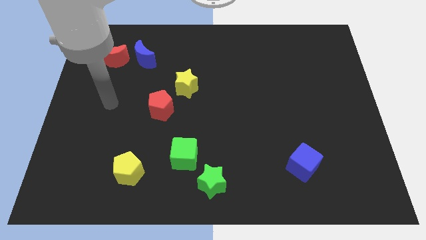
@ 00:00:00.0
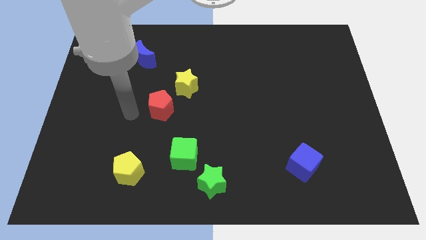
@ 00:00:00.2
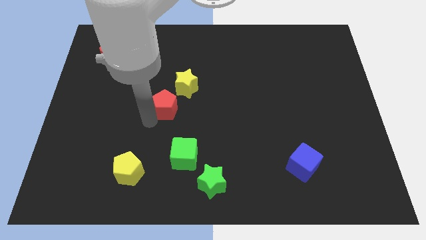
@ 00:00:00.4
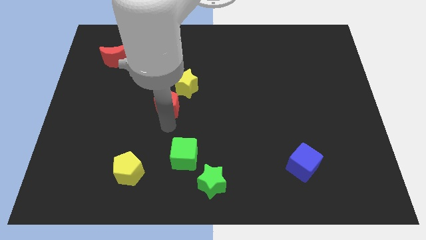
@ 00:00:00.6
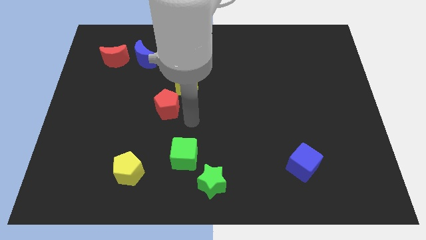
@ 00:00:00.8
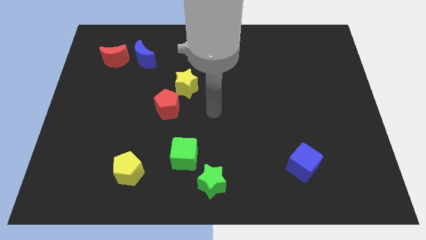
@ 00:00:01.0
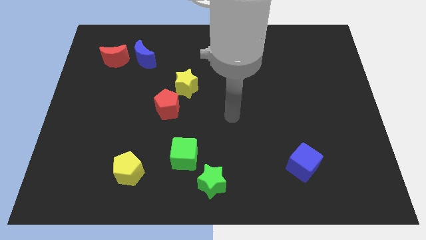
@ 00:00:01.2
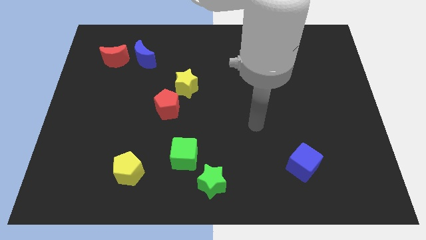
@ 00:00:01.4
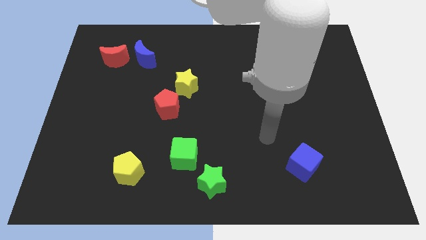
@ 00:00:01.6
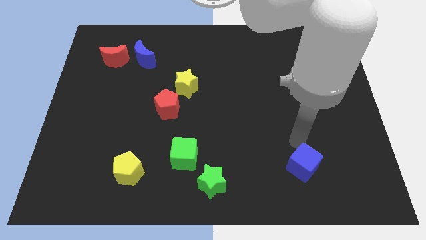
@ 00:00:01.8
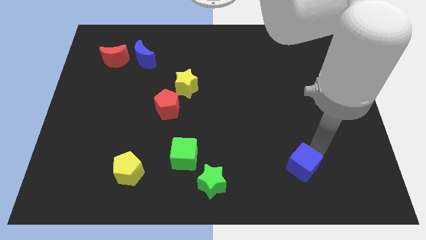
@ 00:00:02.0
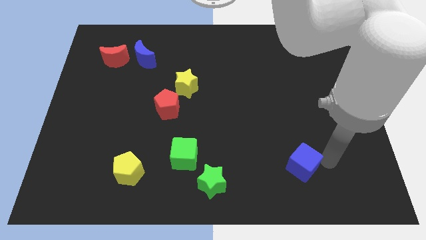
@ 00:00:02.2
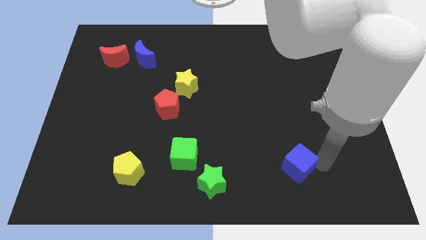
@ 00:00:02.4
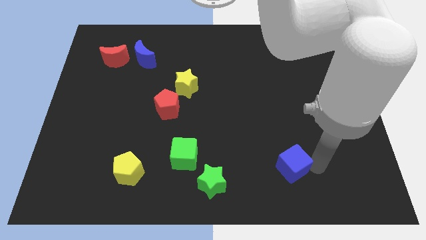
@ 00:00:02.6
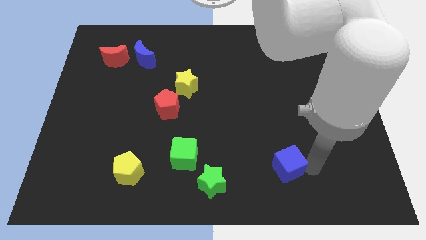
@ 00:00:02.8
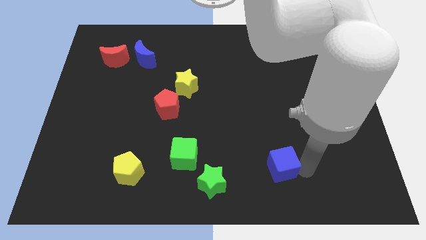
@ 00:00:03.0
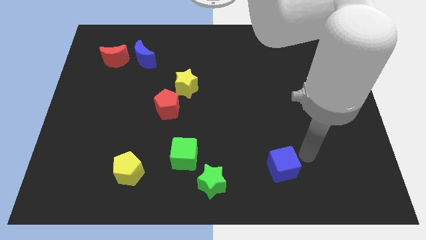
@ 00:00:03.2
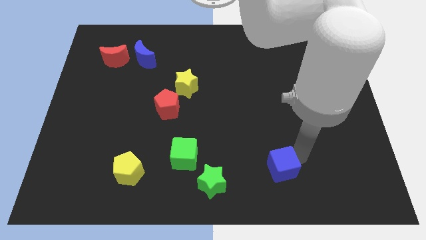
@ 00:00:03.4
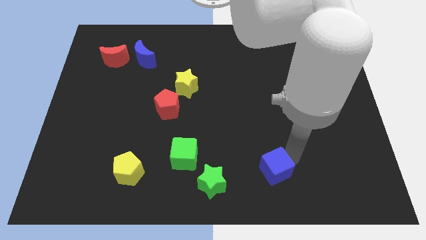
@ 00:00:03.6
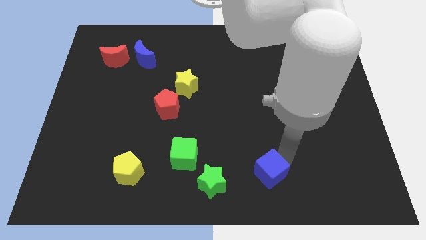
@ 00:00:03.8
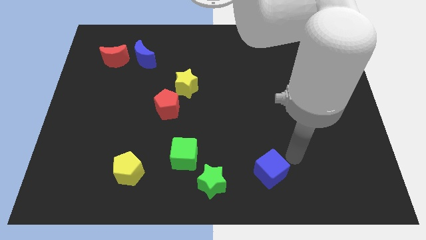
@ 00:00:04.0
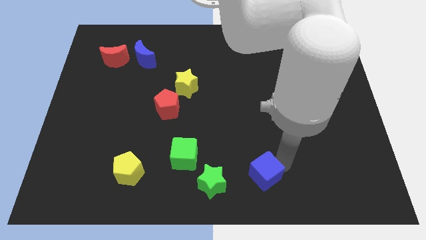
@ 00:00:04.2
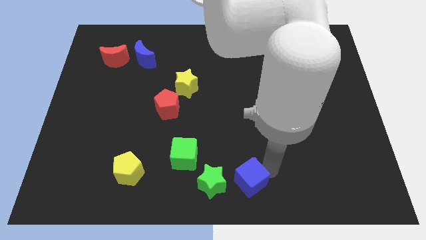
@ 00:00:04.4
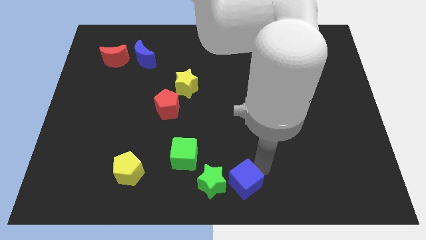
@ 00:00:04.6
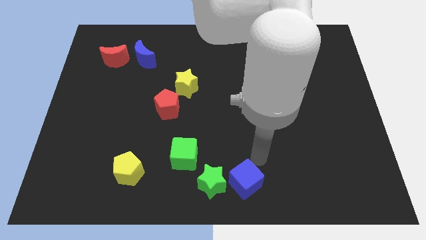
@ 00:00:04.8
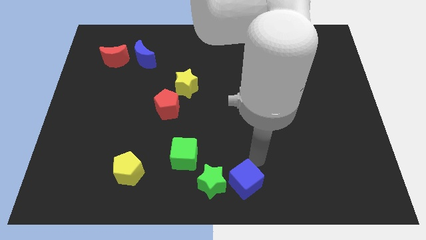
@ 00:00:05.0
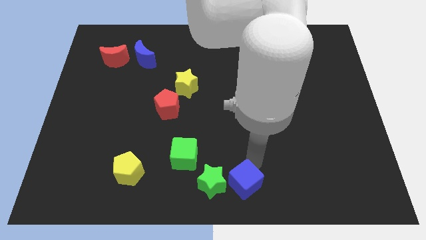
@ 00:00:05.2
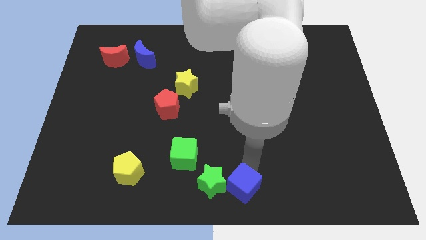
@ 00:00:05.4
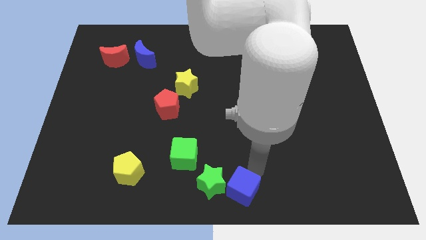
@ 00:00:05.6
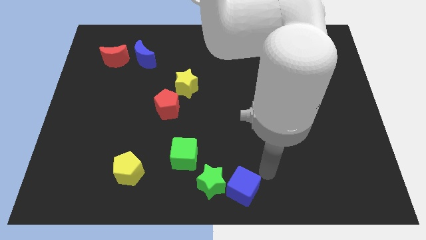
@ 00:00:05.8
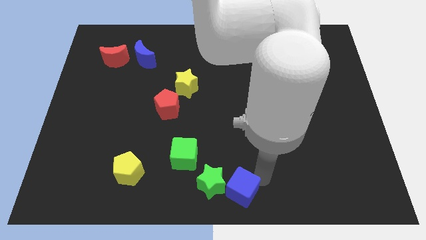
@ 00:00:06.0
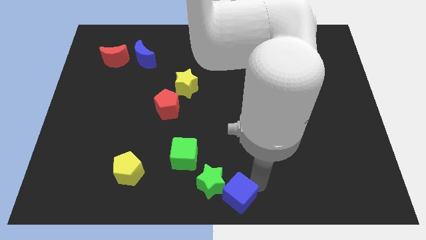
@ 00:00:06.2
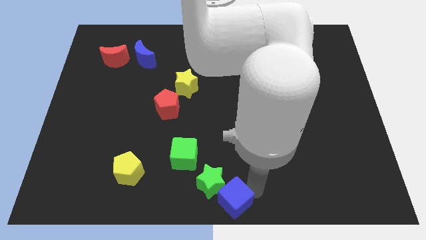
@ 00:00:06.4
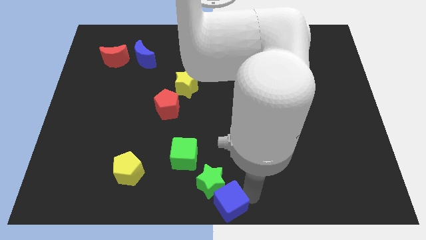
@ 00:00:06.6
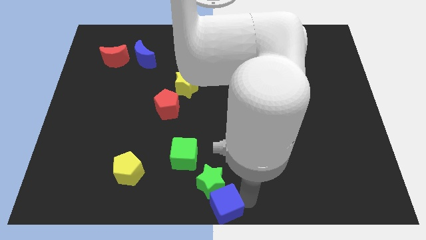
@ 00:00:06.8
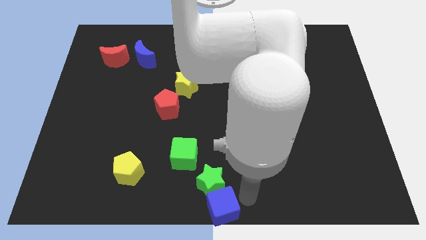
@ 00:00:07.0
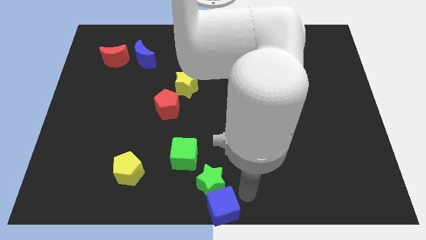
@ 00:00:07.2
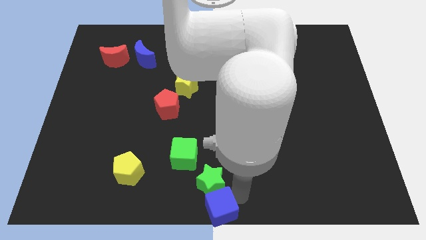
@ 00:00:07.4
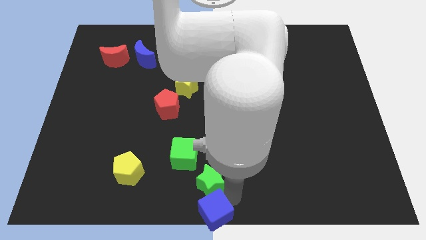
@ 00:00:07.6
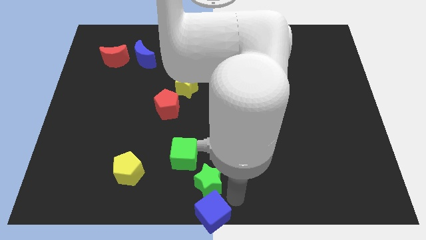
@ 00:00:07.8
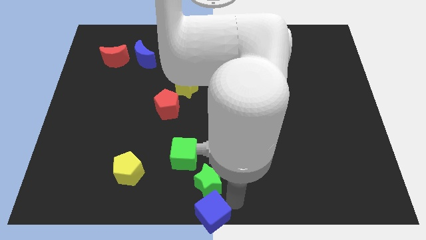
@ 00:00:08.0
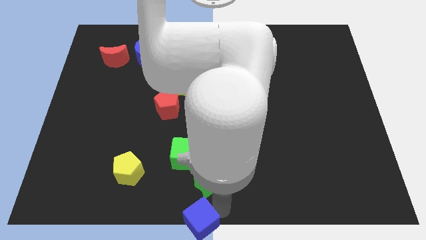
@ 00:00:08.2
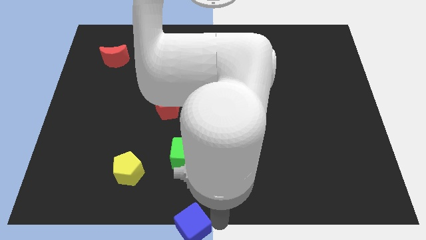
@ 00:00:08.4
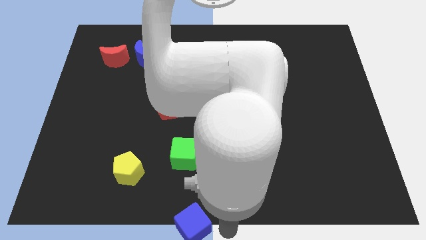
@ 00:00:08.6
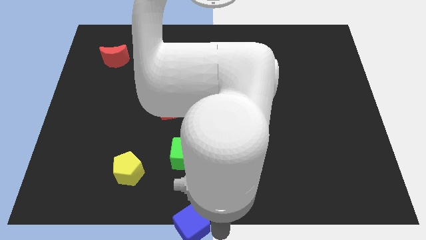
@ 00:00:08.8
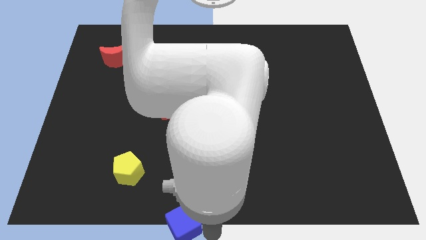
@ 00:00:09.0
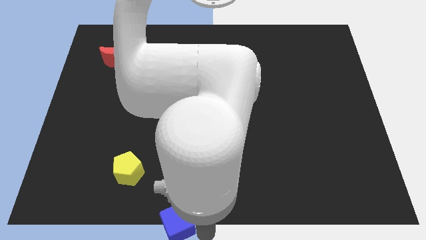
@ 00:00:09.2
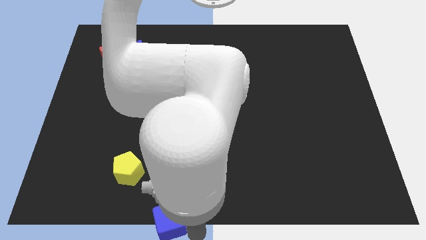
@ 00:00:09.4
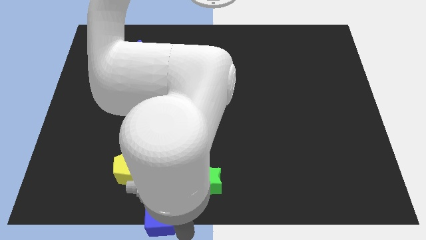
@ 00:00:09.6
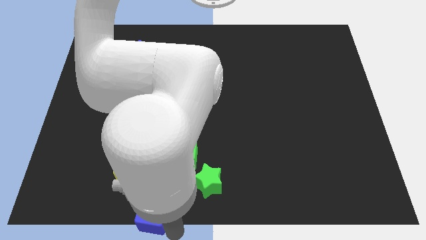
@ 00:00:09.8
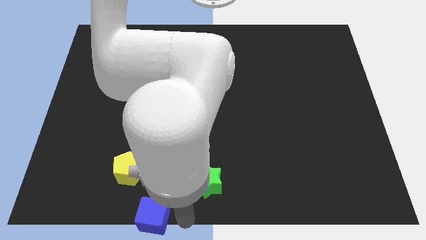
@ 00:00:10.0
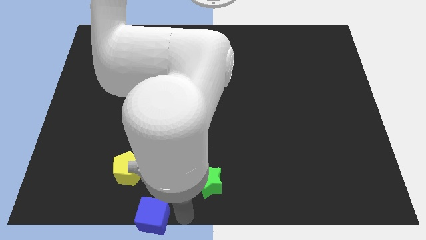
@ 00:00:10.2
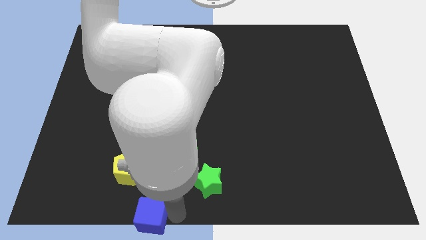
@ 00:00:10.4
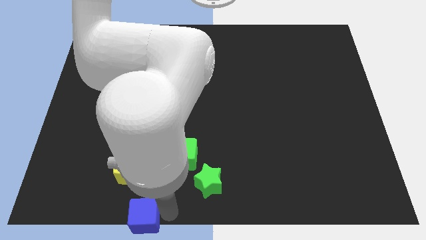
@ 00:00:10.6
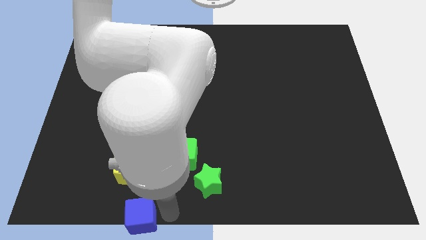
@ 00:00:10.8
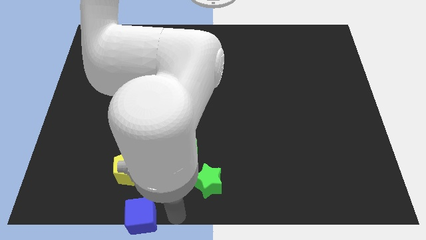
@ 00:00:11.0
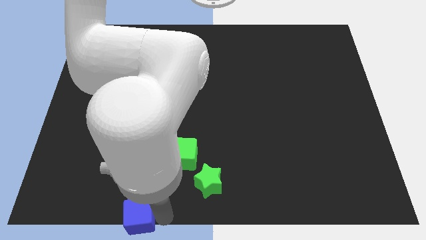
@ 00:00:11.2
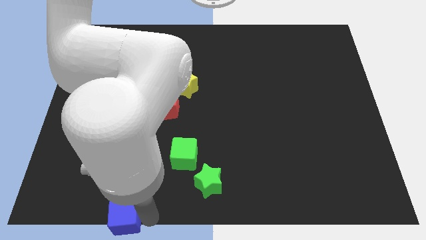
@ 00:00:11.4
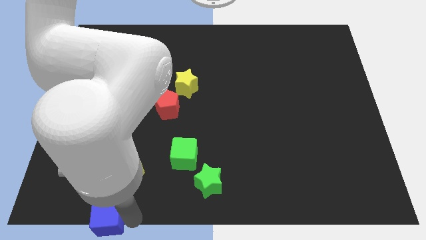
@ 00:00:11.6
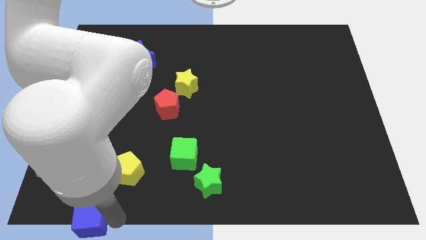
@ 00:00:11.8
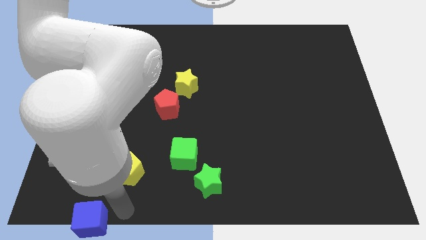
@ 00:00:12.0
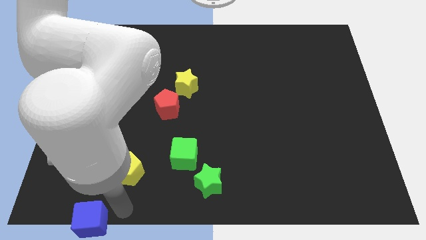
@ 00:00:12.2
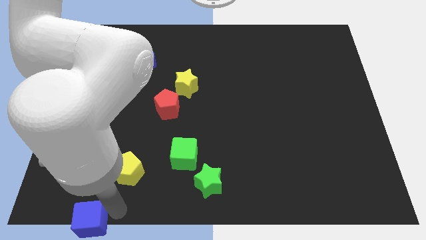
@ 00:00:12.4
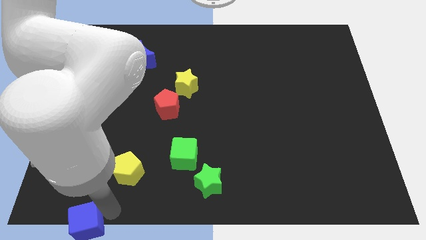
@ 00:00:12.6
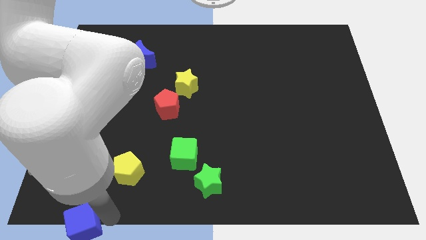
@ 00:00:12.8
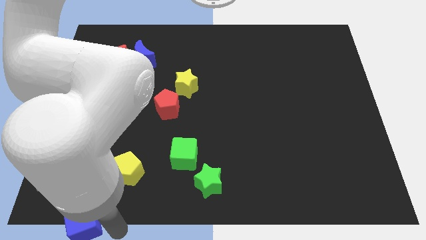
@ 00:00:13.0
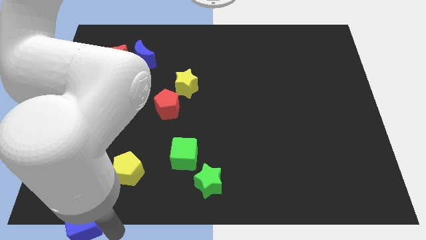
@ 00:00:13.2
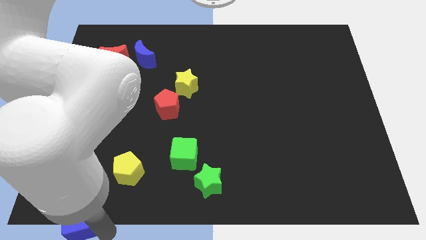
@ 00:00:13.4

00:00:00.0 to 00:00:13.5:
move the blue cube to the bottom left of the board

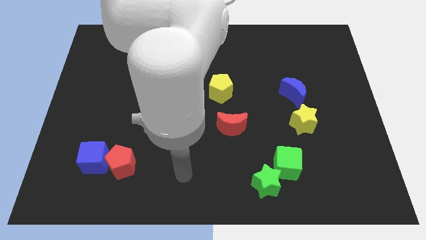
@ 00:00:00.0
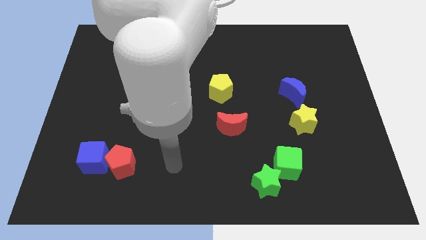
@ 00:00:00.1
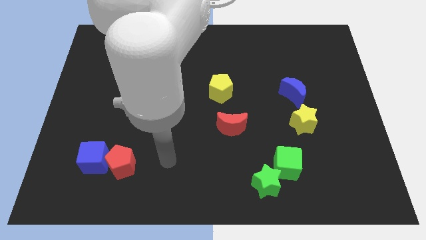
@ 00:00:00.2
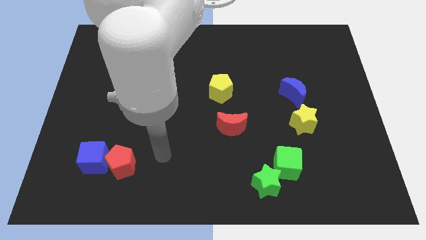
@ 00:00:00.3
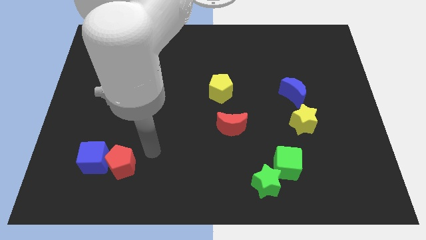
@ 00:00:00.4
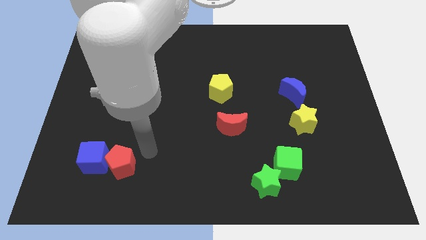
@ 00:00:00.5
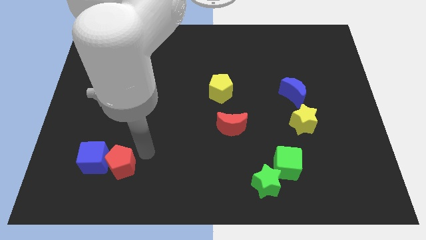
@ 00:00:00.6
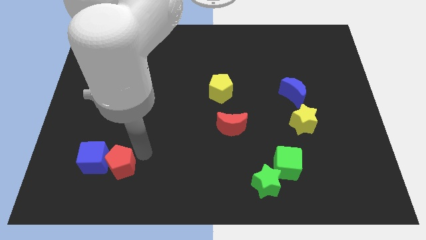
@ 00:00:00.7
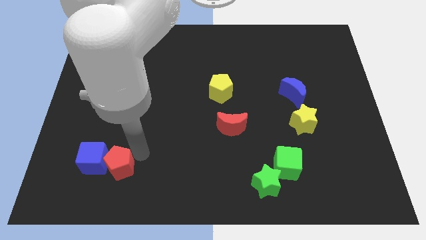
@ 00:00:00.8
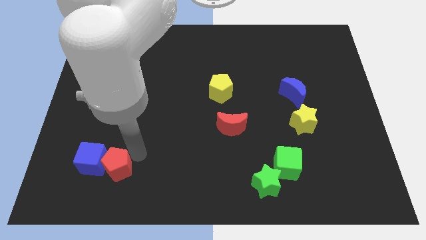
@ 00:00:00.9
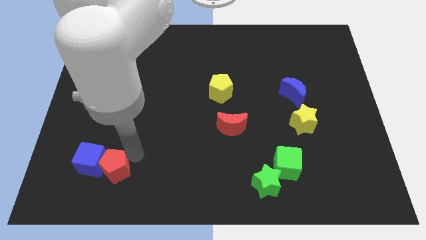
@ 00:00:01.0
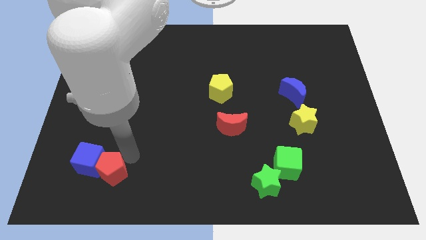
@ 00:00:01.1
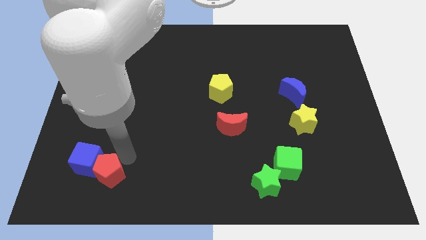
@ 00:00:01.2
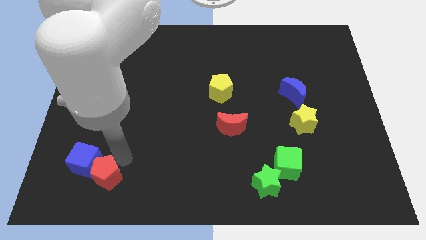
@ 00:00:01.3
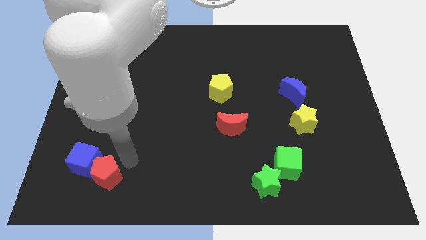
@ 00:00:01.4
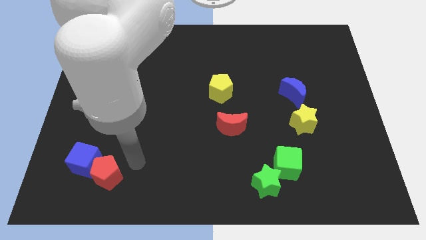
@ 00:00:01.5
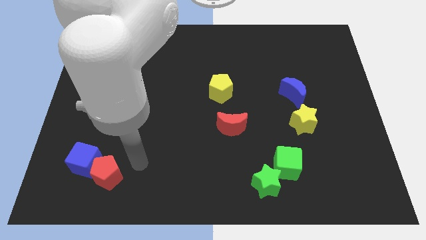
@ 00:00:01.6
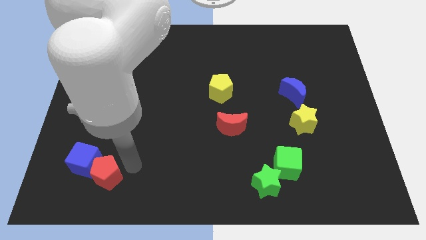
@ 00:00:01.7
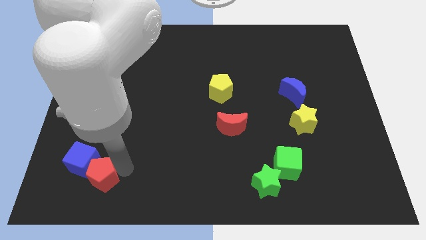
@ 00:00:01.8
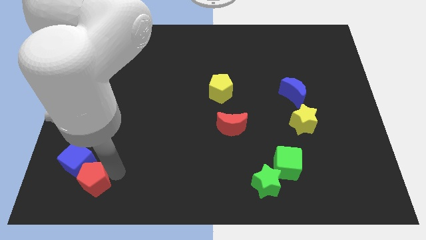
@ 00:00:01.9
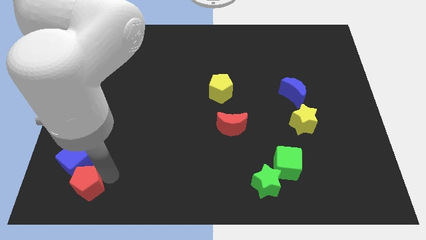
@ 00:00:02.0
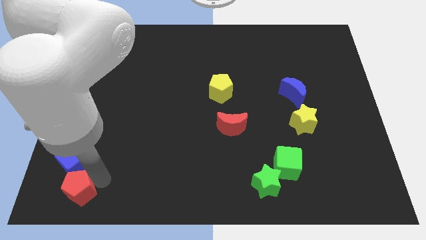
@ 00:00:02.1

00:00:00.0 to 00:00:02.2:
move the red pentagon to the lower left corner
